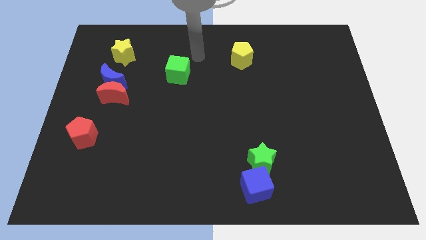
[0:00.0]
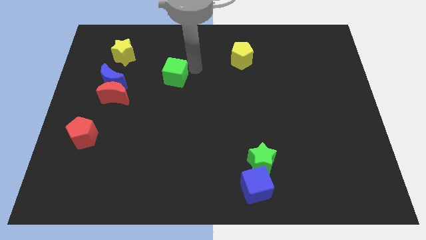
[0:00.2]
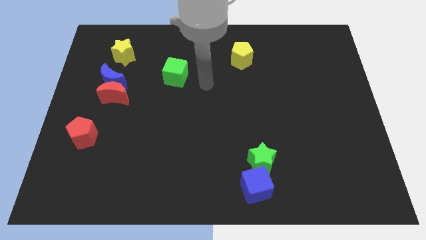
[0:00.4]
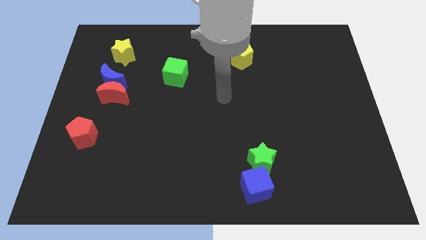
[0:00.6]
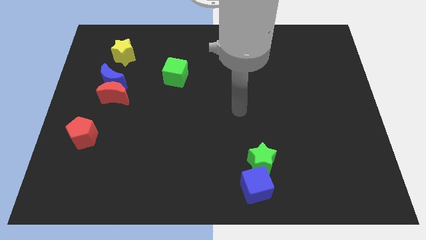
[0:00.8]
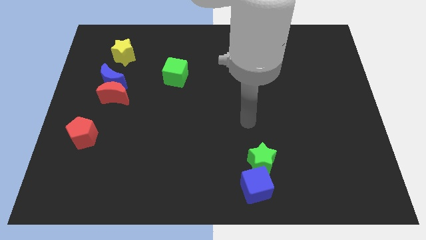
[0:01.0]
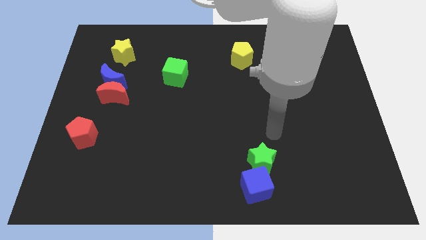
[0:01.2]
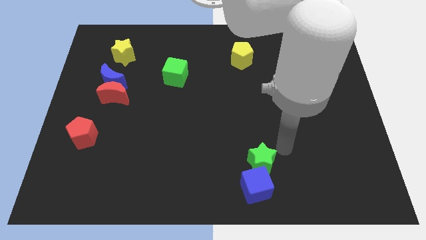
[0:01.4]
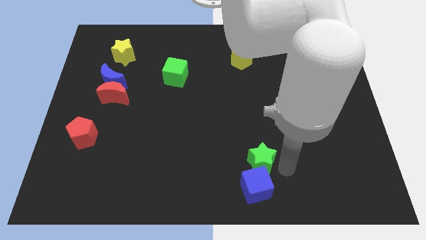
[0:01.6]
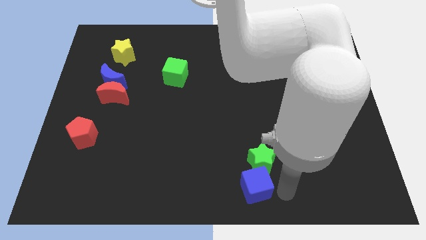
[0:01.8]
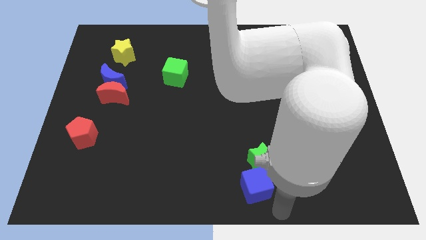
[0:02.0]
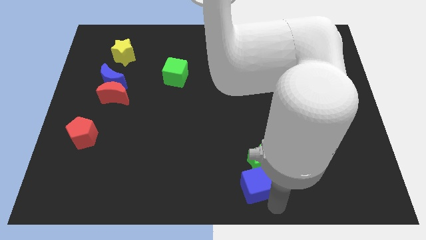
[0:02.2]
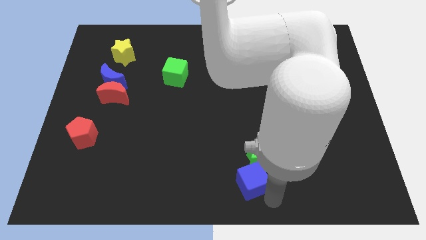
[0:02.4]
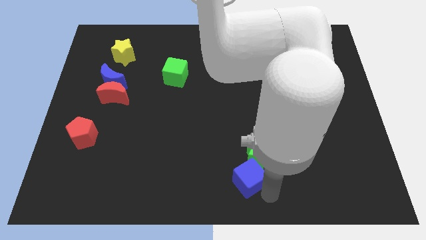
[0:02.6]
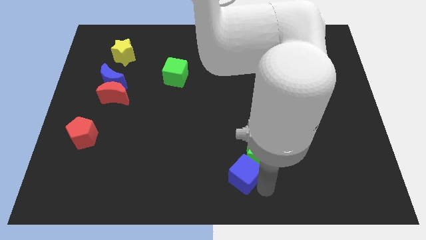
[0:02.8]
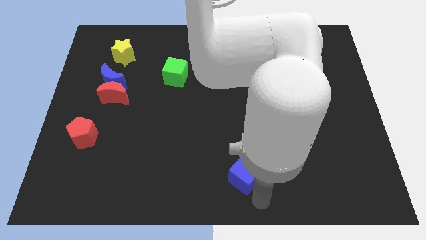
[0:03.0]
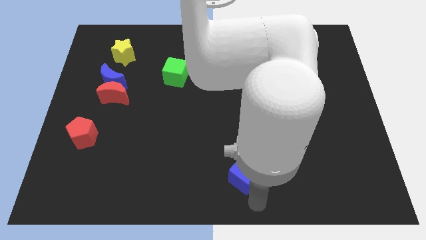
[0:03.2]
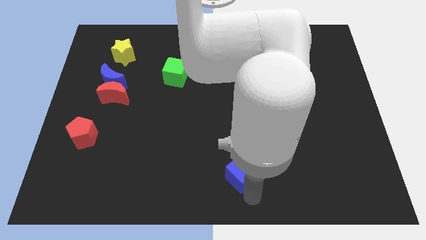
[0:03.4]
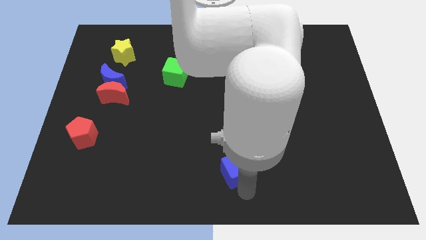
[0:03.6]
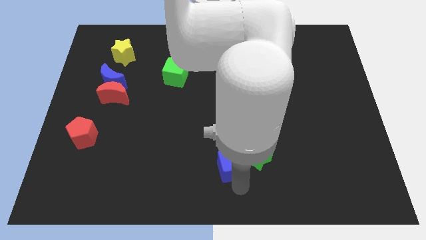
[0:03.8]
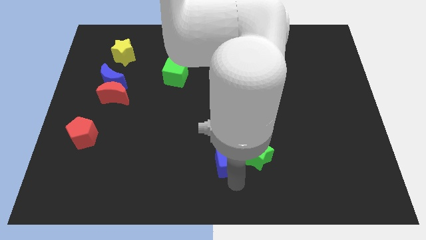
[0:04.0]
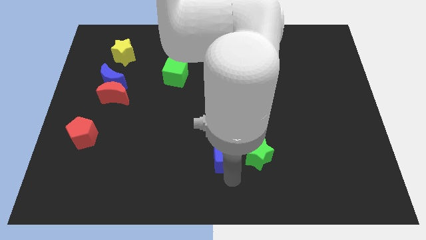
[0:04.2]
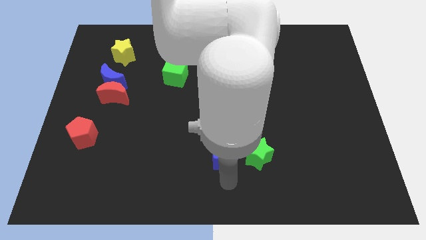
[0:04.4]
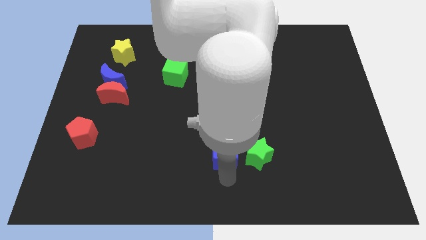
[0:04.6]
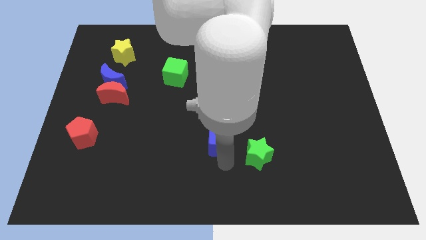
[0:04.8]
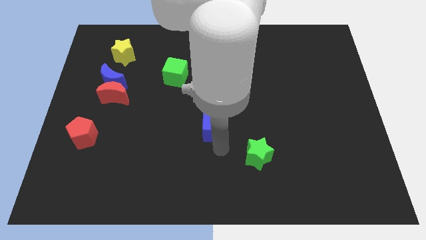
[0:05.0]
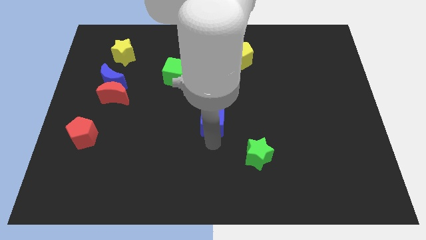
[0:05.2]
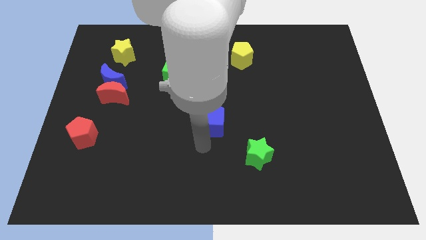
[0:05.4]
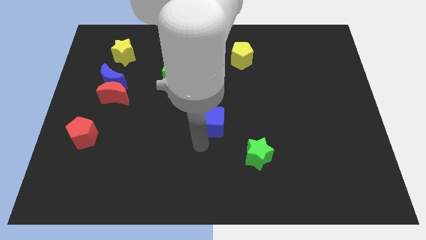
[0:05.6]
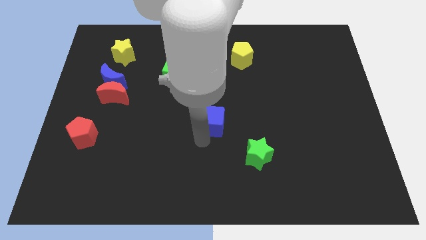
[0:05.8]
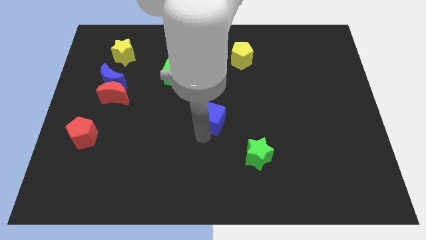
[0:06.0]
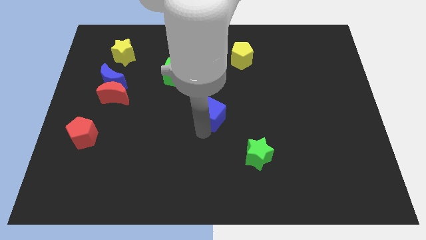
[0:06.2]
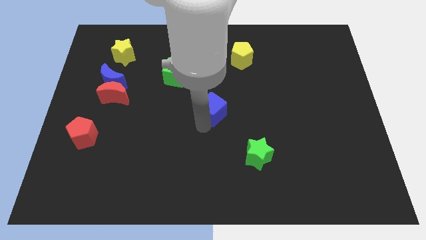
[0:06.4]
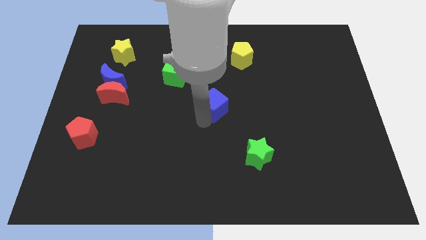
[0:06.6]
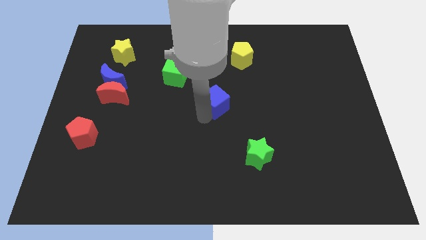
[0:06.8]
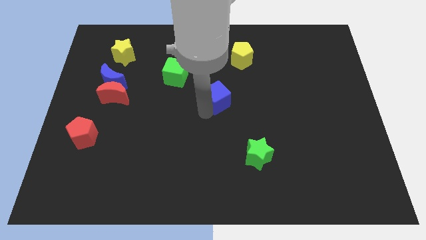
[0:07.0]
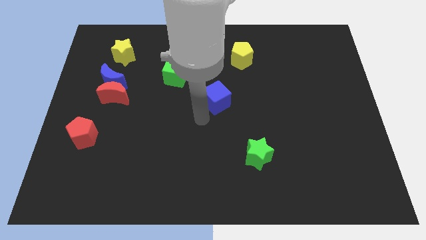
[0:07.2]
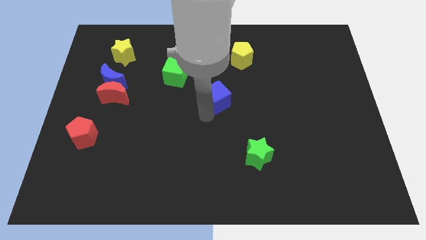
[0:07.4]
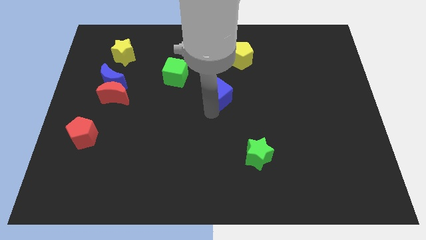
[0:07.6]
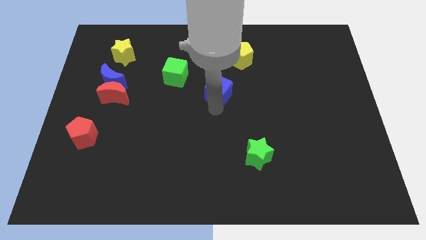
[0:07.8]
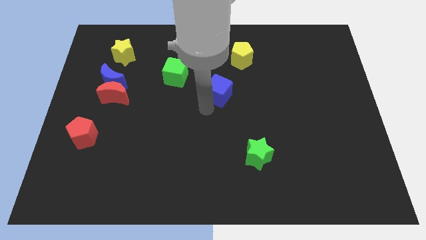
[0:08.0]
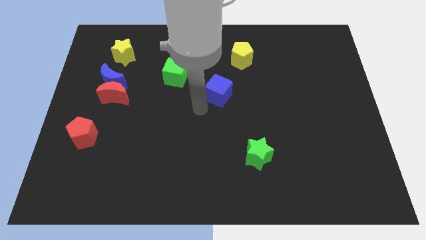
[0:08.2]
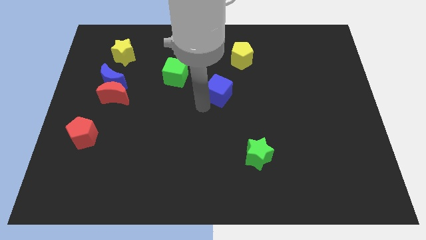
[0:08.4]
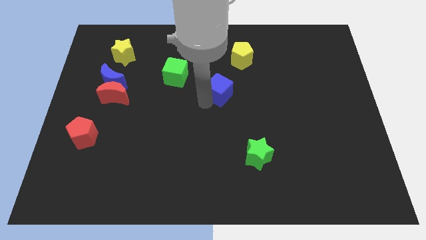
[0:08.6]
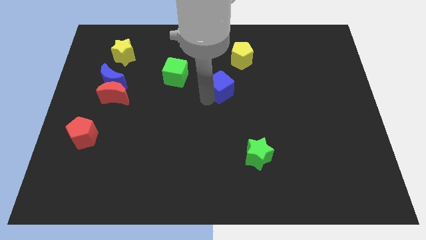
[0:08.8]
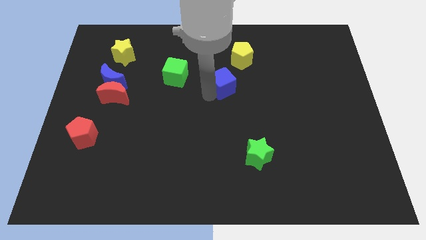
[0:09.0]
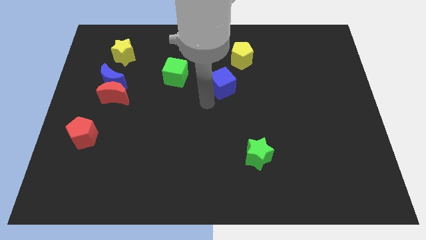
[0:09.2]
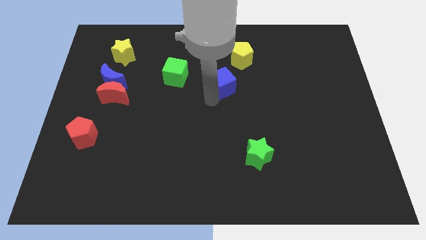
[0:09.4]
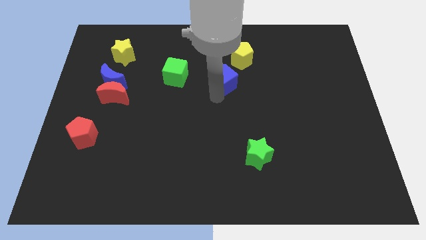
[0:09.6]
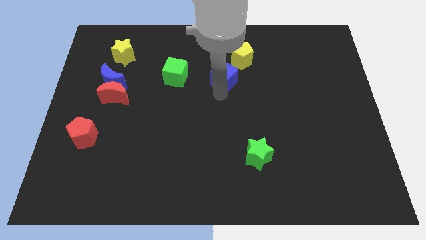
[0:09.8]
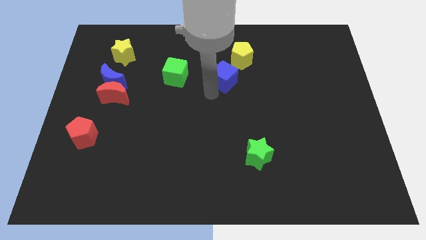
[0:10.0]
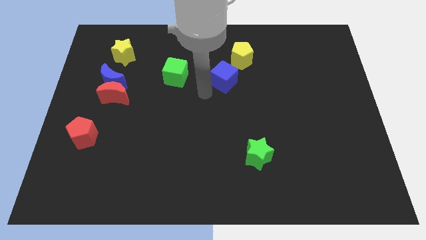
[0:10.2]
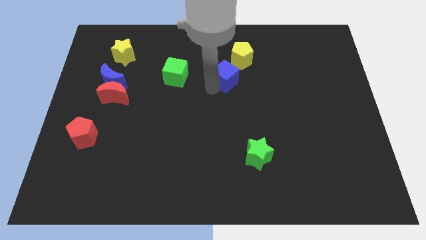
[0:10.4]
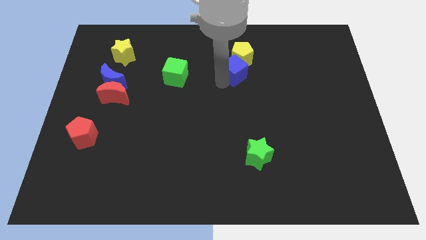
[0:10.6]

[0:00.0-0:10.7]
slide the blue cube close to the yellow pentagon

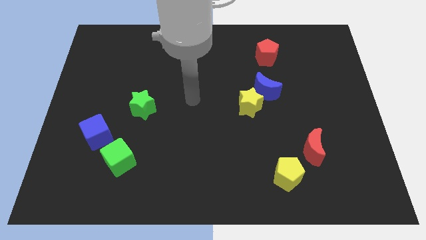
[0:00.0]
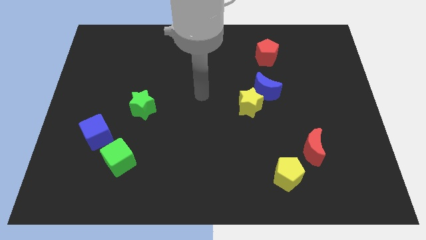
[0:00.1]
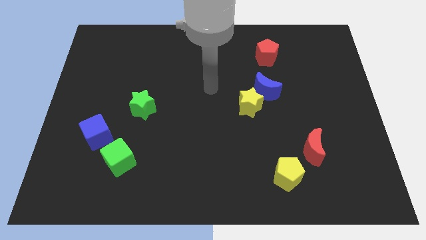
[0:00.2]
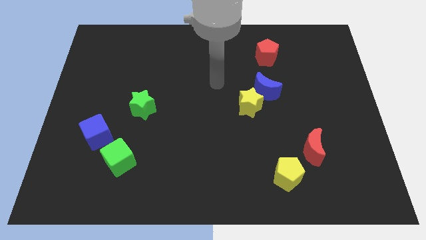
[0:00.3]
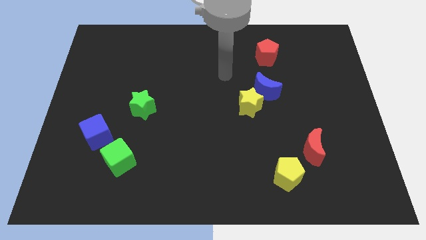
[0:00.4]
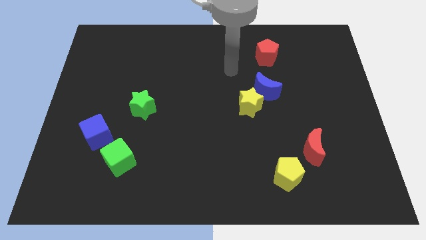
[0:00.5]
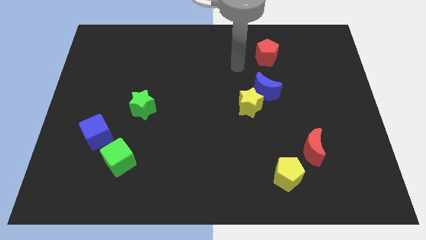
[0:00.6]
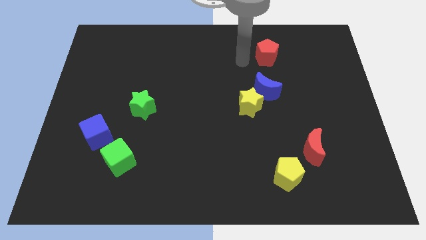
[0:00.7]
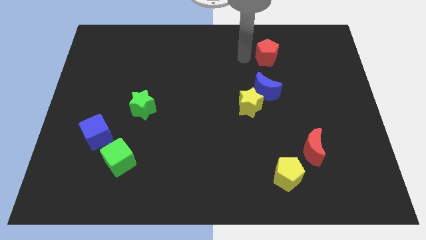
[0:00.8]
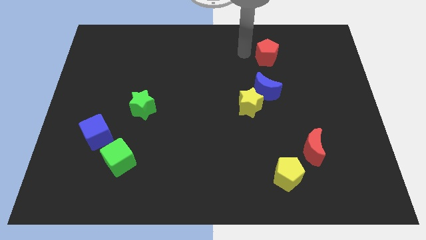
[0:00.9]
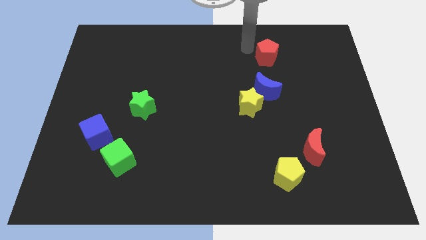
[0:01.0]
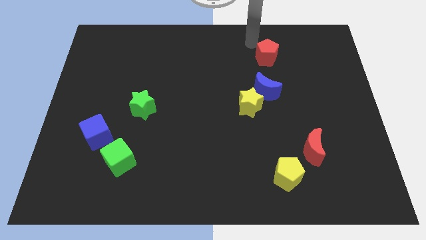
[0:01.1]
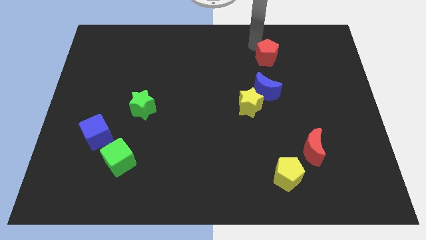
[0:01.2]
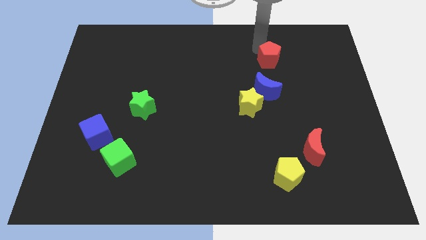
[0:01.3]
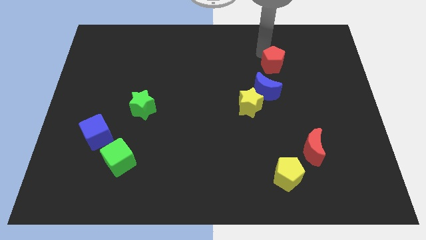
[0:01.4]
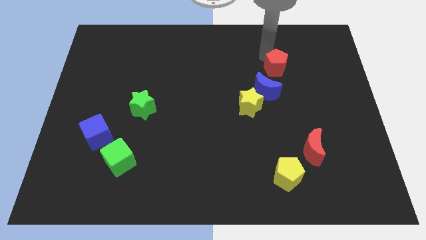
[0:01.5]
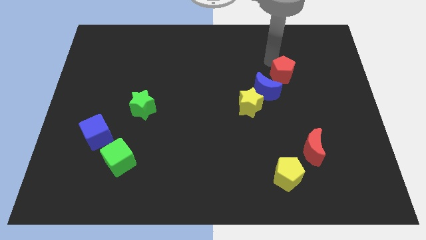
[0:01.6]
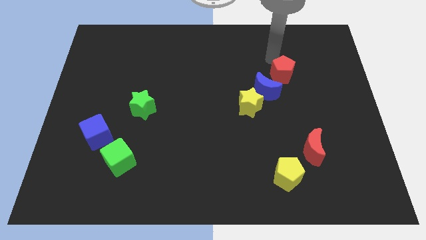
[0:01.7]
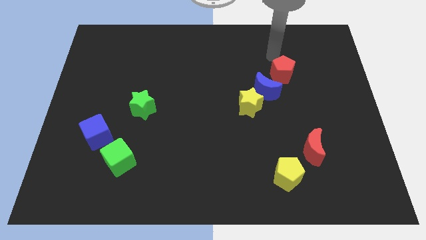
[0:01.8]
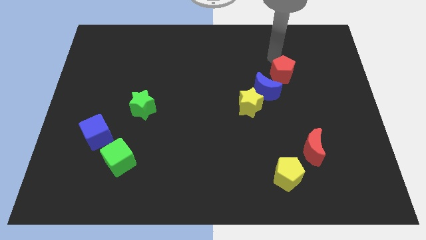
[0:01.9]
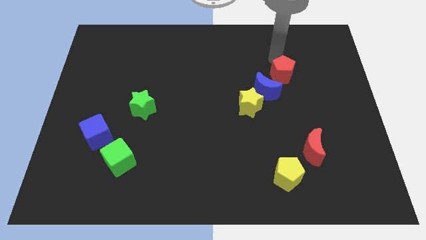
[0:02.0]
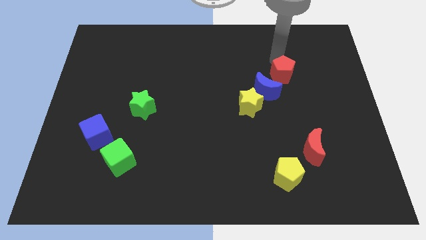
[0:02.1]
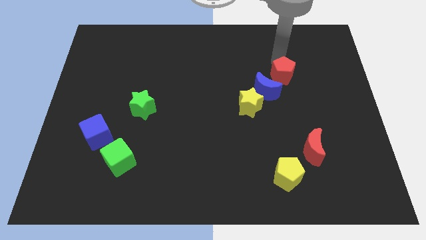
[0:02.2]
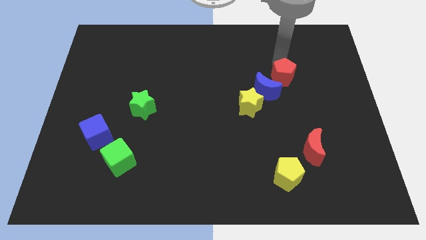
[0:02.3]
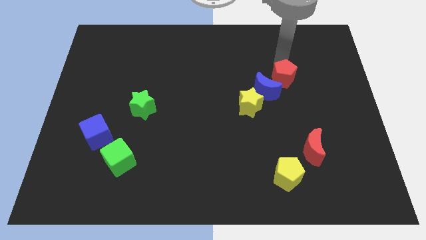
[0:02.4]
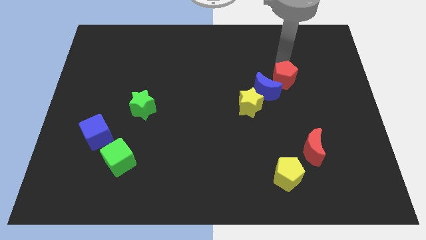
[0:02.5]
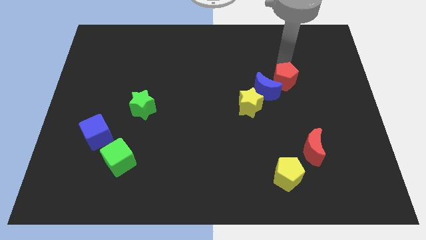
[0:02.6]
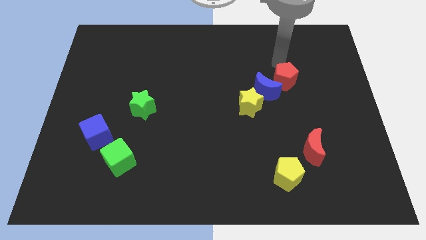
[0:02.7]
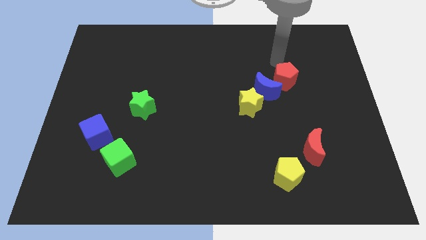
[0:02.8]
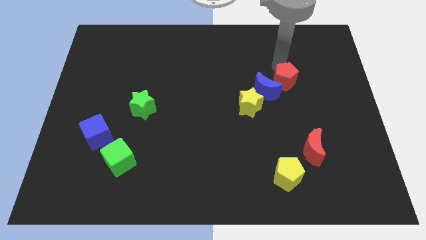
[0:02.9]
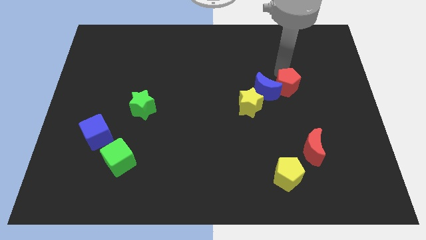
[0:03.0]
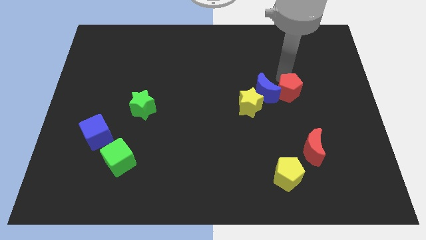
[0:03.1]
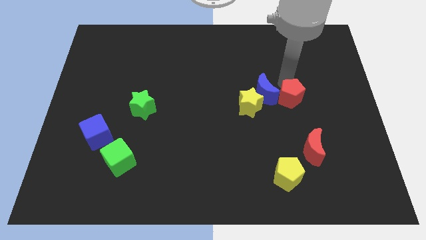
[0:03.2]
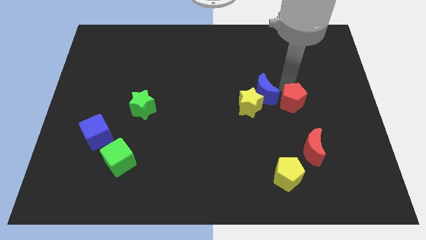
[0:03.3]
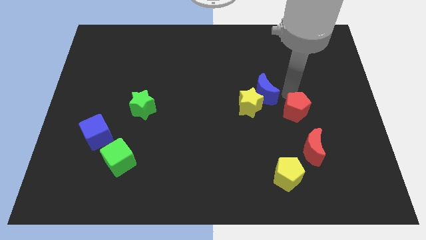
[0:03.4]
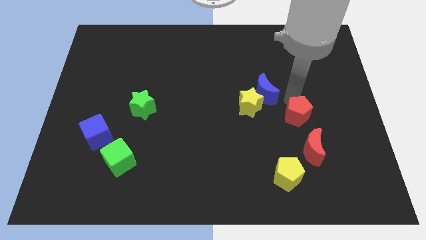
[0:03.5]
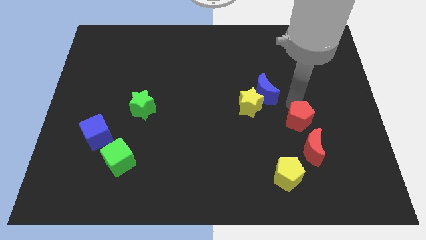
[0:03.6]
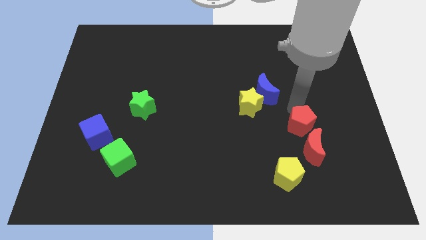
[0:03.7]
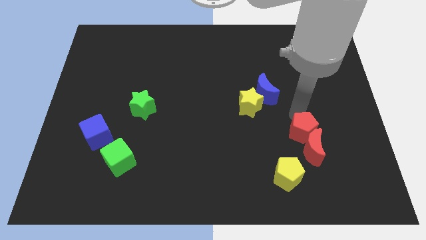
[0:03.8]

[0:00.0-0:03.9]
put the red pentagon to the red moon
